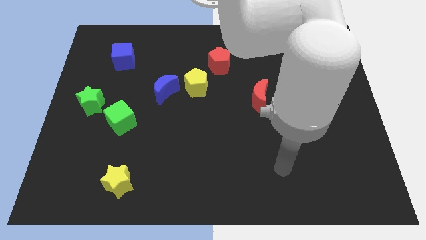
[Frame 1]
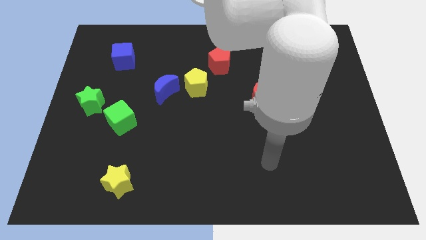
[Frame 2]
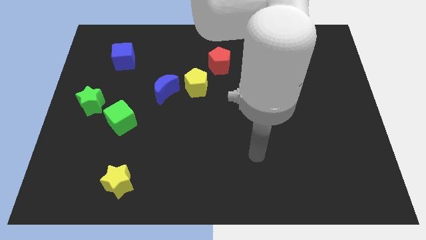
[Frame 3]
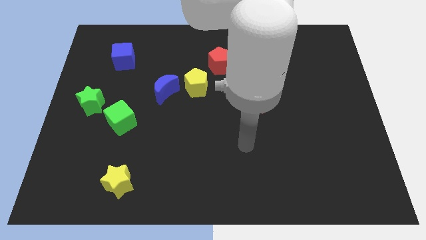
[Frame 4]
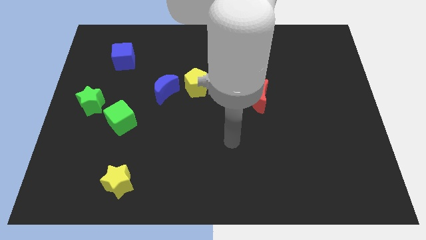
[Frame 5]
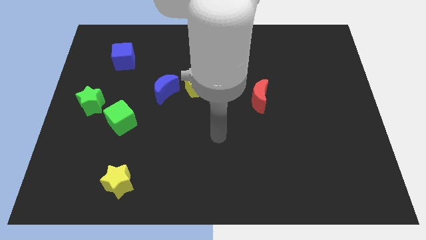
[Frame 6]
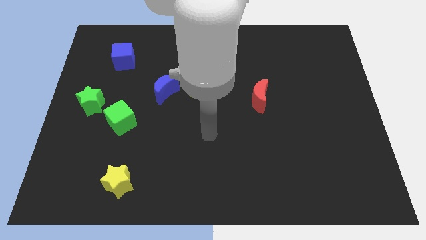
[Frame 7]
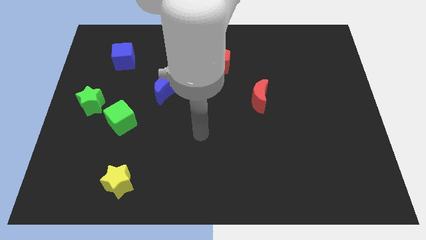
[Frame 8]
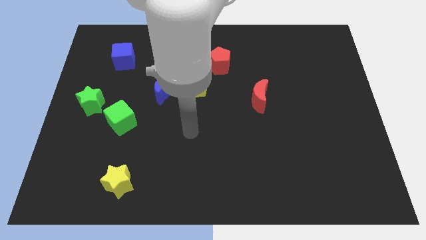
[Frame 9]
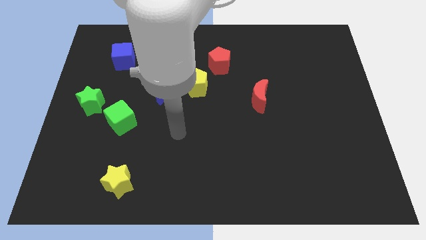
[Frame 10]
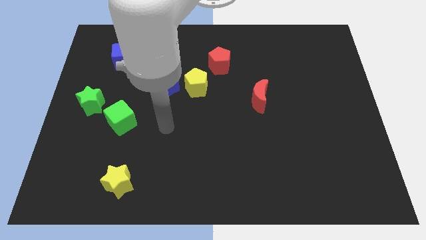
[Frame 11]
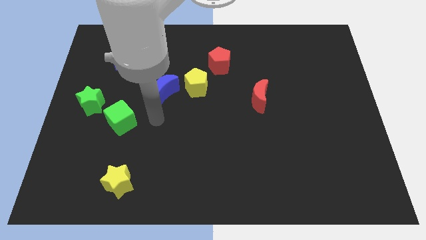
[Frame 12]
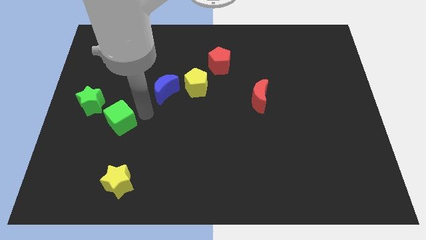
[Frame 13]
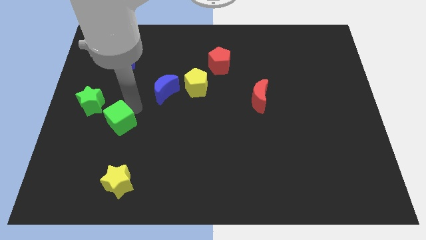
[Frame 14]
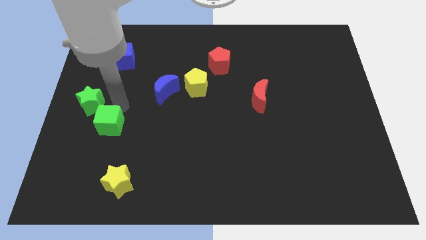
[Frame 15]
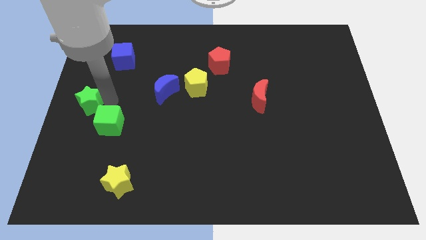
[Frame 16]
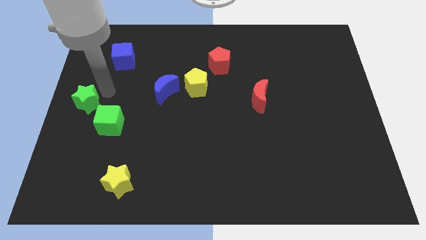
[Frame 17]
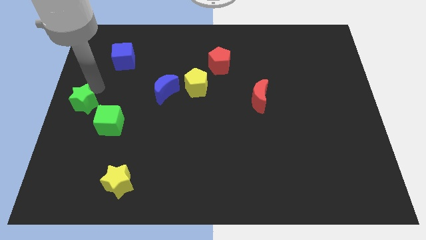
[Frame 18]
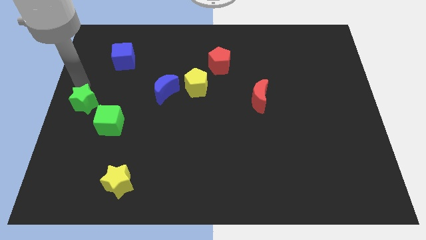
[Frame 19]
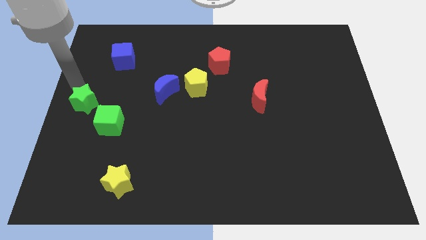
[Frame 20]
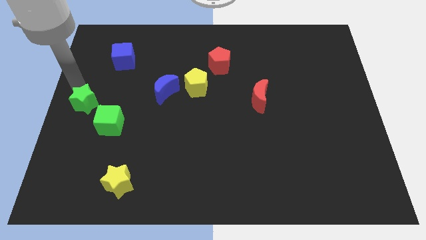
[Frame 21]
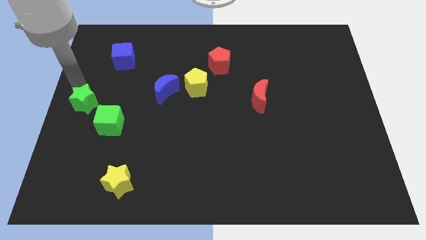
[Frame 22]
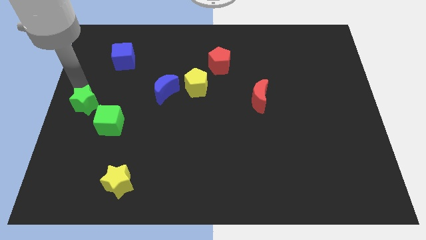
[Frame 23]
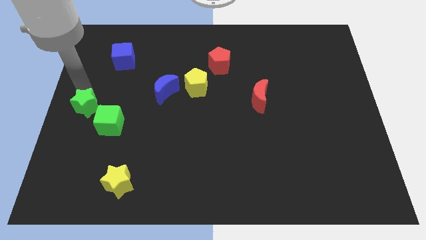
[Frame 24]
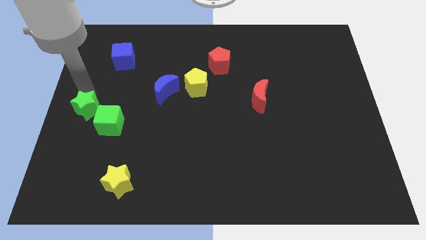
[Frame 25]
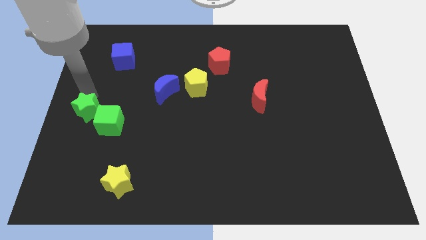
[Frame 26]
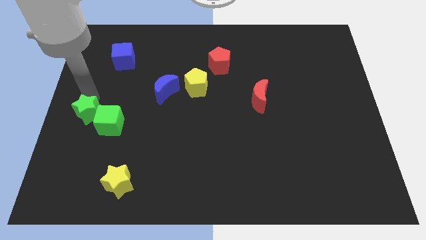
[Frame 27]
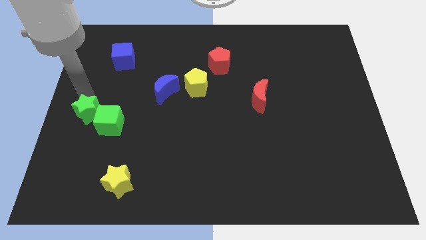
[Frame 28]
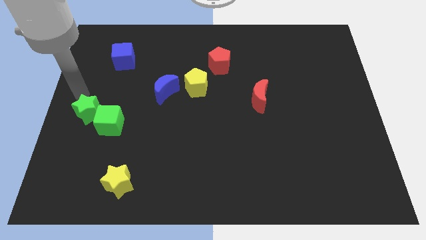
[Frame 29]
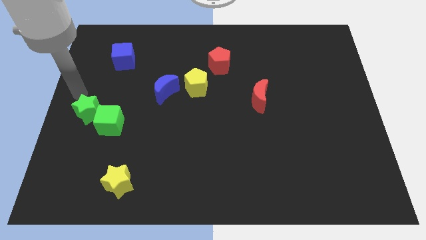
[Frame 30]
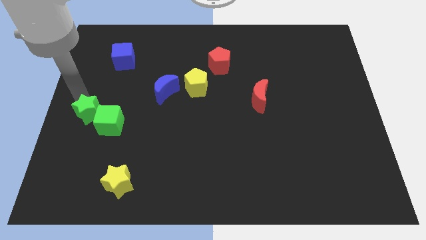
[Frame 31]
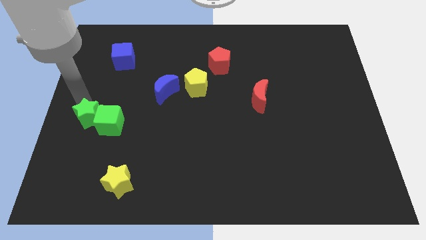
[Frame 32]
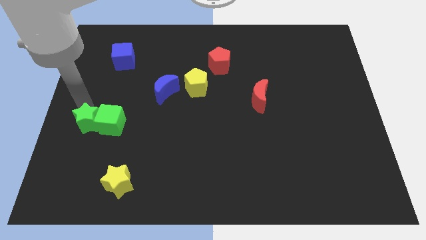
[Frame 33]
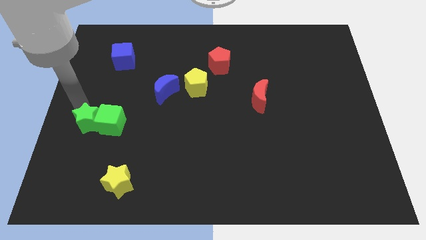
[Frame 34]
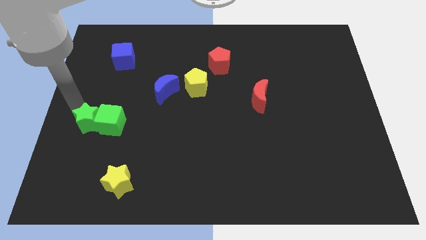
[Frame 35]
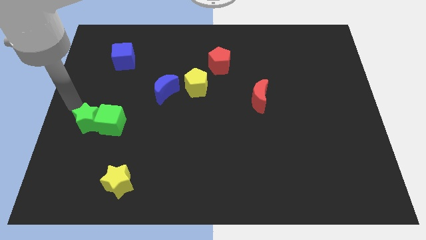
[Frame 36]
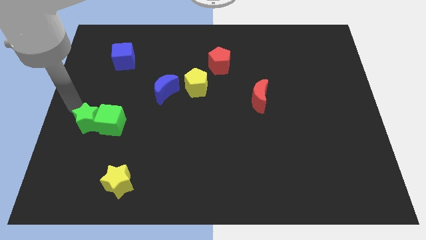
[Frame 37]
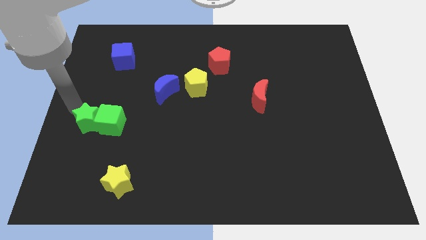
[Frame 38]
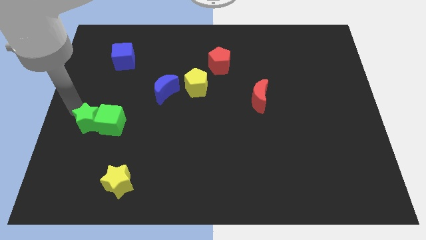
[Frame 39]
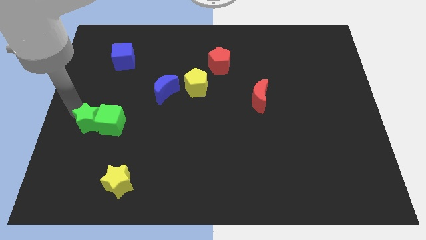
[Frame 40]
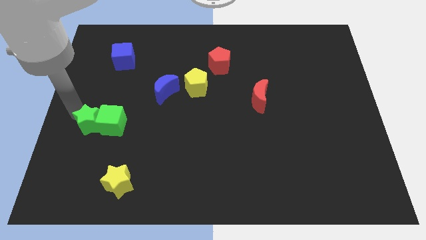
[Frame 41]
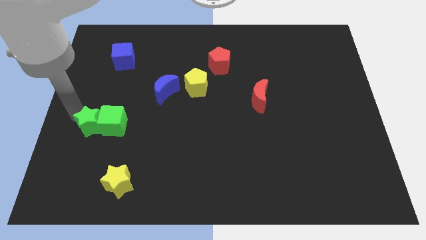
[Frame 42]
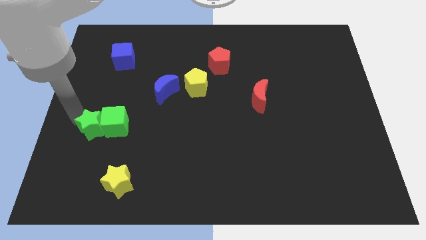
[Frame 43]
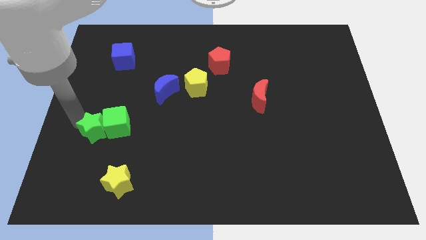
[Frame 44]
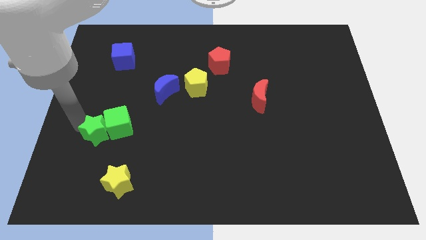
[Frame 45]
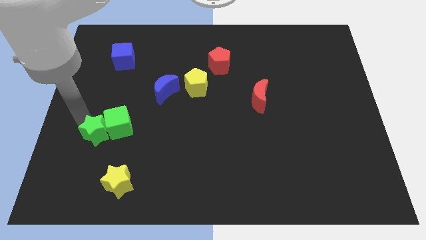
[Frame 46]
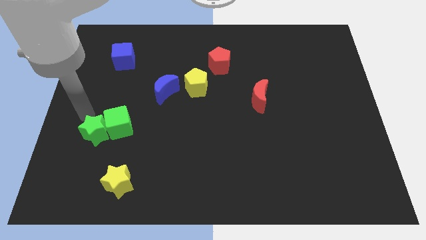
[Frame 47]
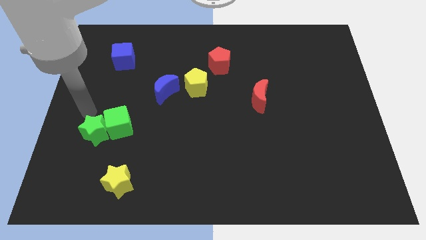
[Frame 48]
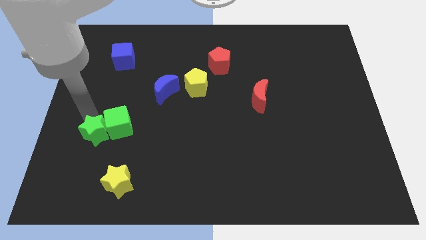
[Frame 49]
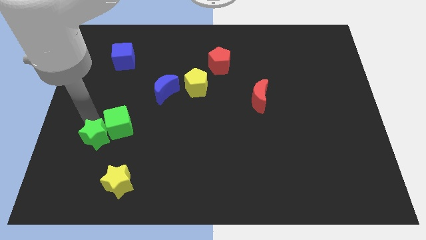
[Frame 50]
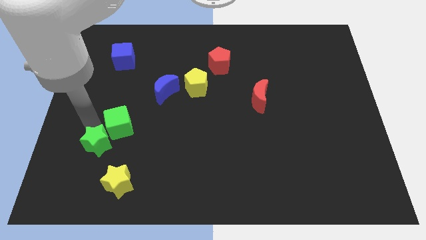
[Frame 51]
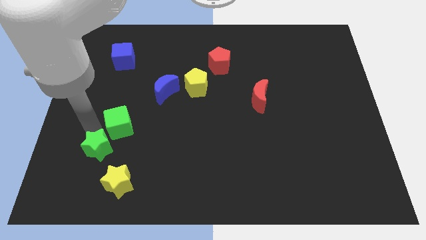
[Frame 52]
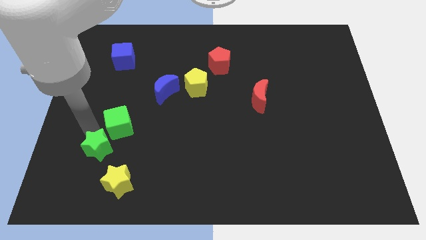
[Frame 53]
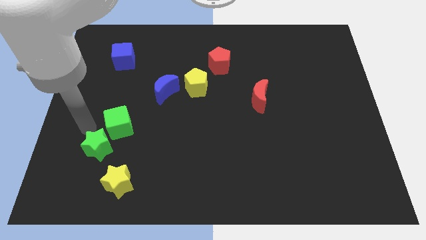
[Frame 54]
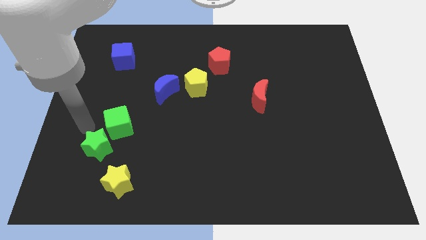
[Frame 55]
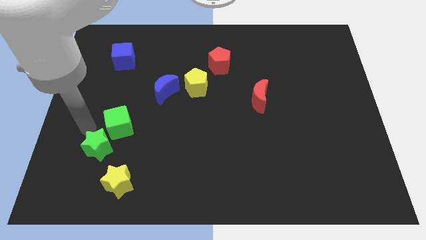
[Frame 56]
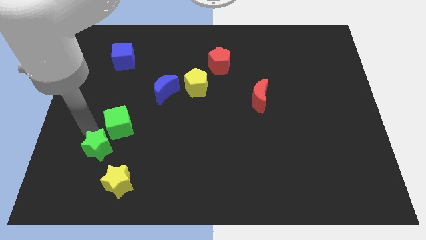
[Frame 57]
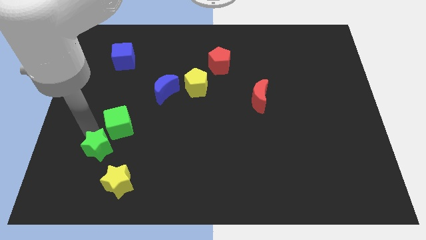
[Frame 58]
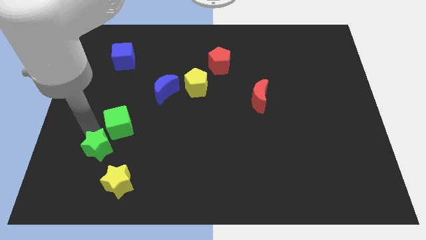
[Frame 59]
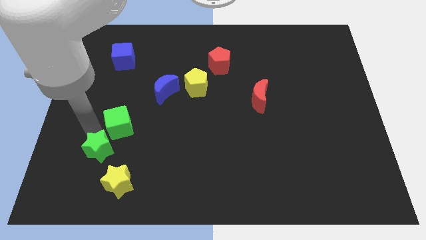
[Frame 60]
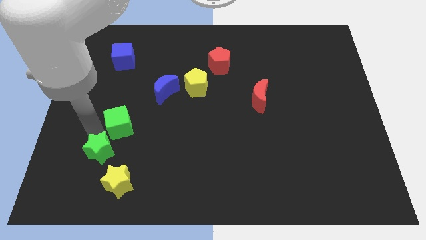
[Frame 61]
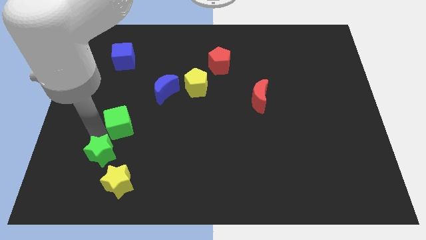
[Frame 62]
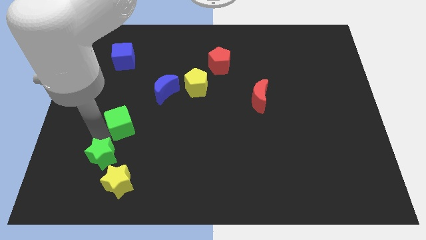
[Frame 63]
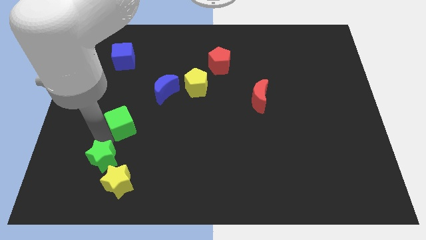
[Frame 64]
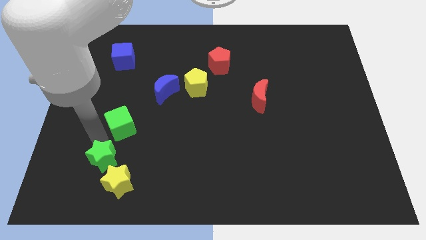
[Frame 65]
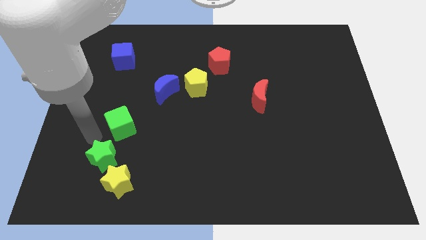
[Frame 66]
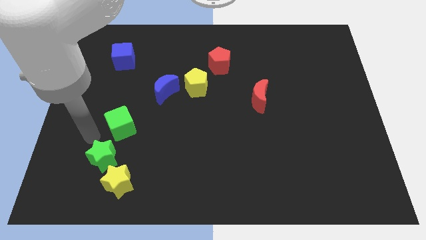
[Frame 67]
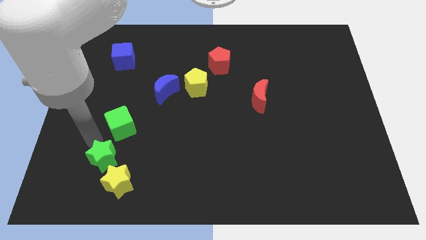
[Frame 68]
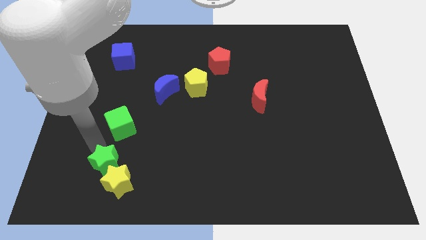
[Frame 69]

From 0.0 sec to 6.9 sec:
push the green star to the yellow star

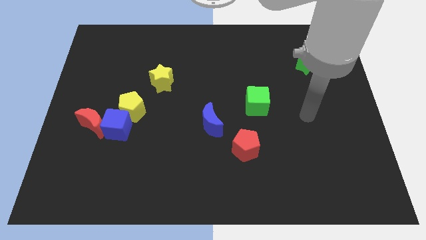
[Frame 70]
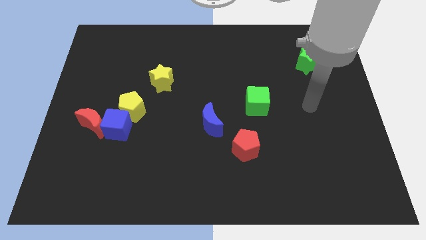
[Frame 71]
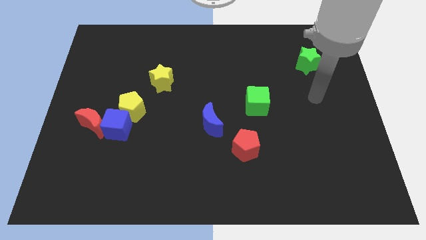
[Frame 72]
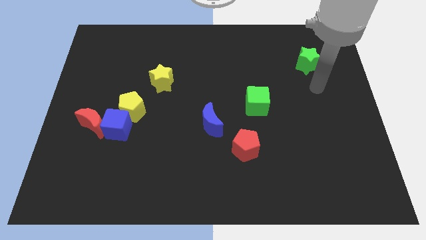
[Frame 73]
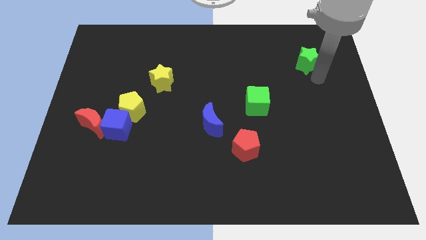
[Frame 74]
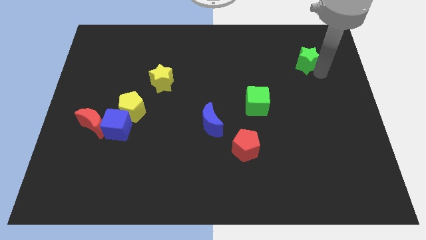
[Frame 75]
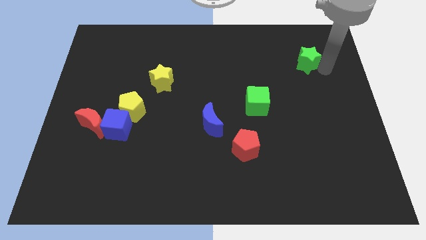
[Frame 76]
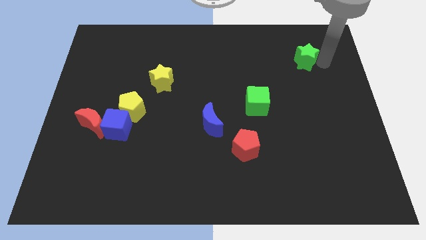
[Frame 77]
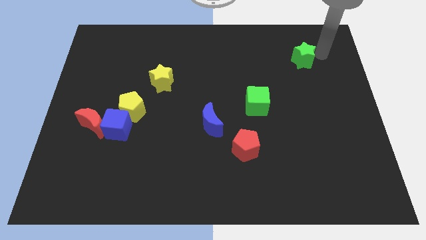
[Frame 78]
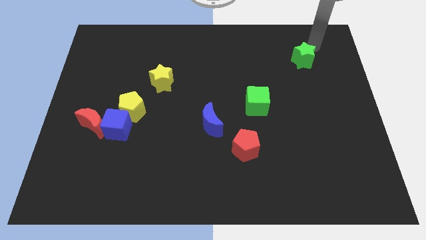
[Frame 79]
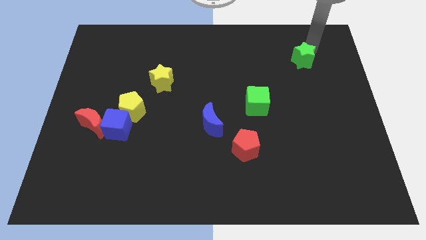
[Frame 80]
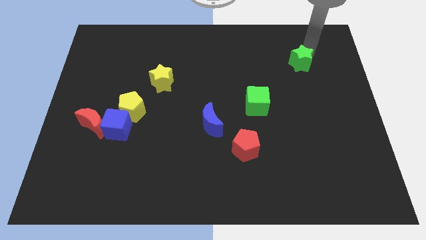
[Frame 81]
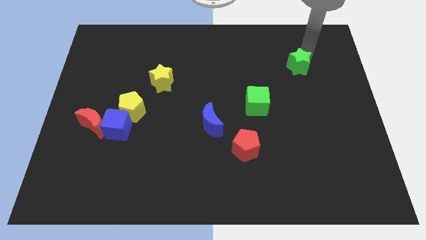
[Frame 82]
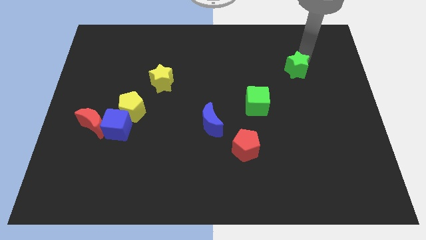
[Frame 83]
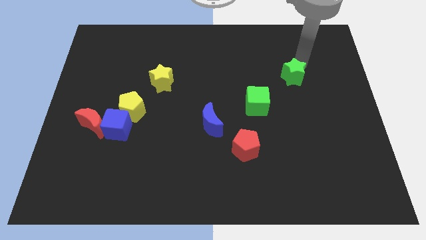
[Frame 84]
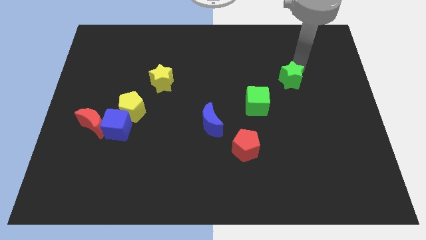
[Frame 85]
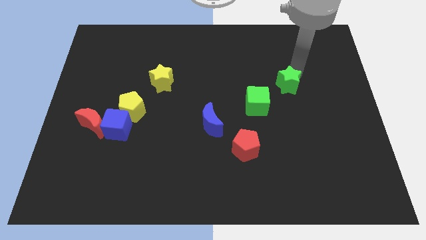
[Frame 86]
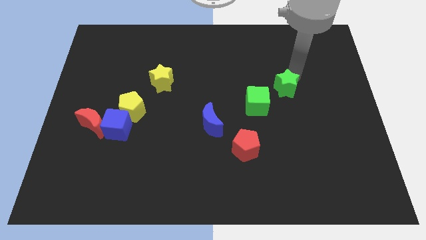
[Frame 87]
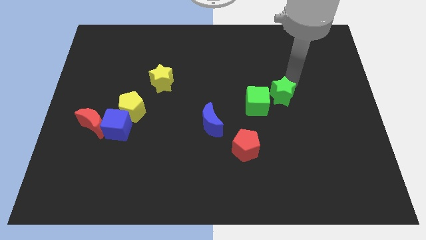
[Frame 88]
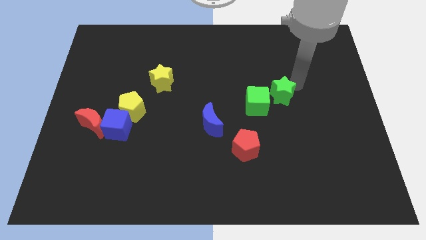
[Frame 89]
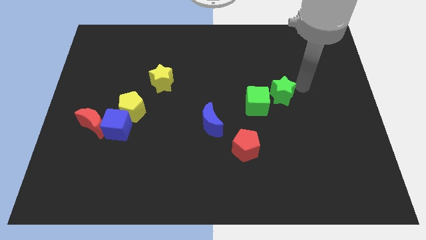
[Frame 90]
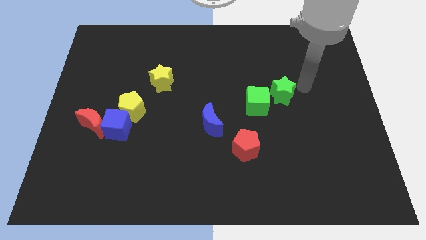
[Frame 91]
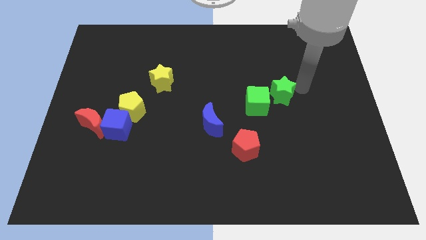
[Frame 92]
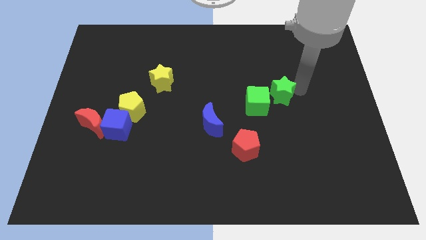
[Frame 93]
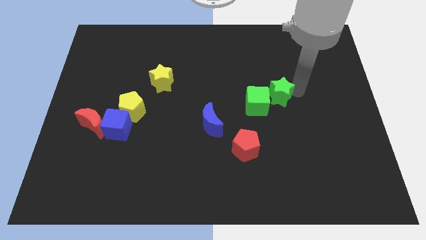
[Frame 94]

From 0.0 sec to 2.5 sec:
move the green star towards the green cube
